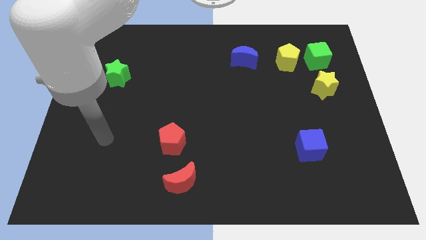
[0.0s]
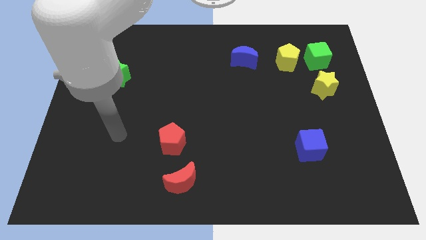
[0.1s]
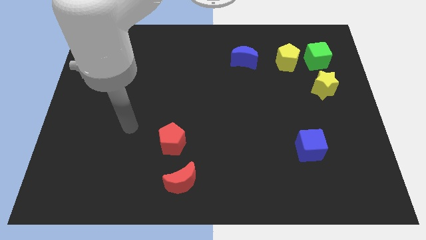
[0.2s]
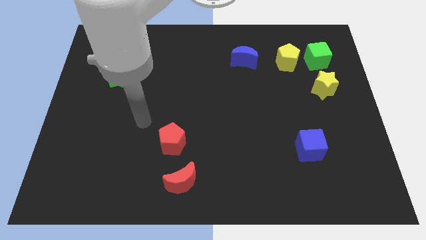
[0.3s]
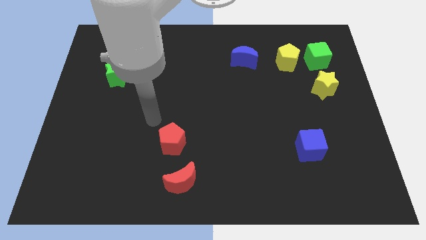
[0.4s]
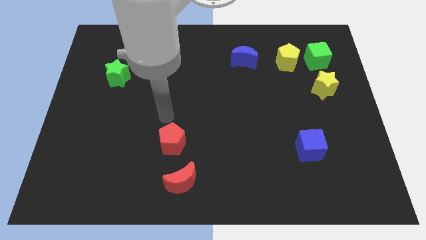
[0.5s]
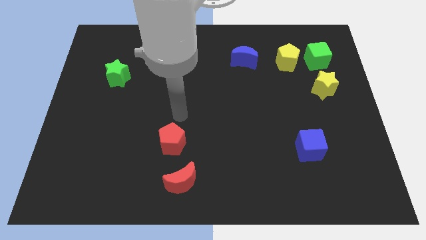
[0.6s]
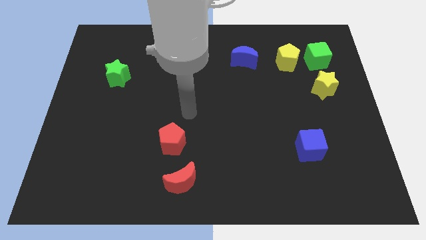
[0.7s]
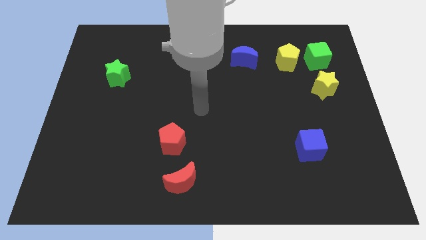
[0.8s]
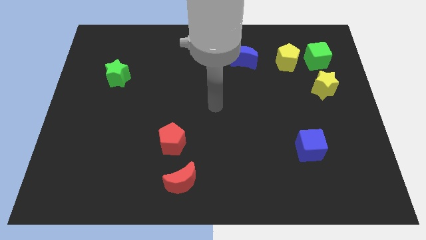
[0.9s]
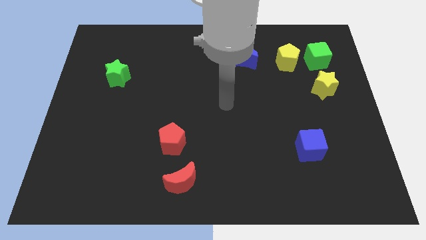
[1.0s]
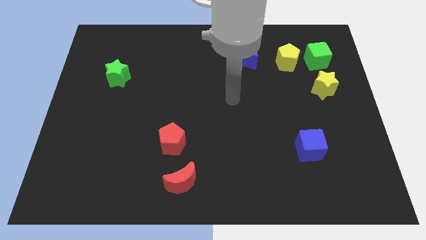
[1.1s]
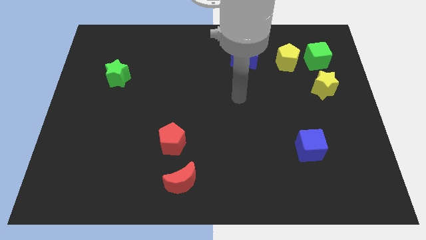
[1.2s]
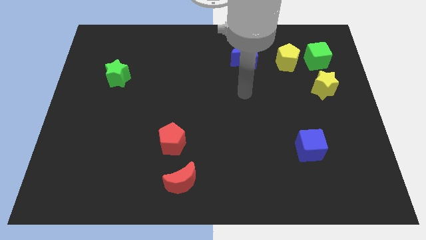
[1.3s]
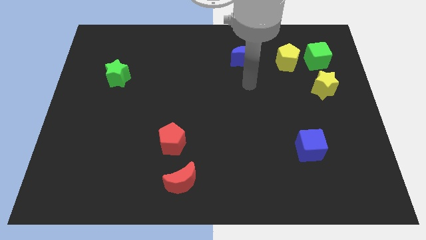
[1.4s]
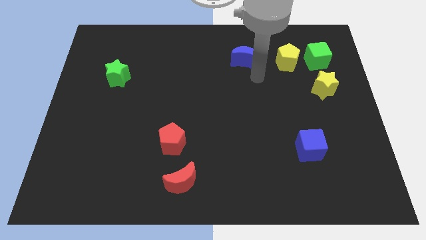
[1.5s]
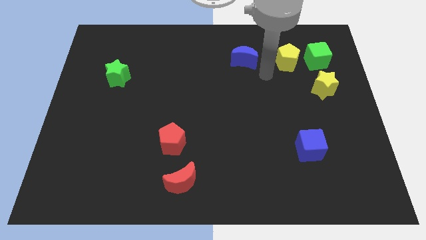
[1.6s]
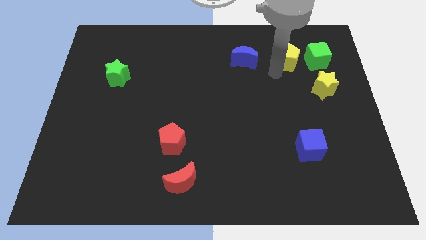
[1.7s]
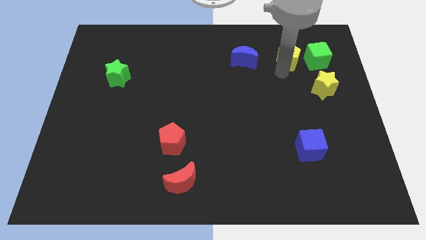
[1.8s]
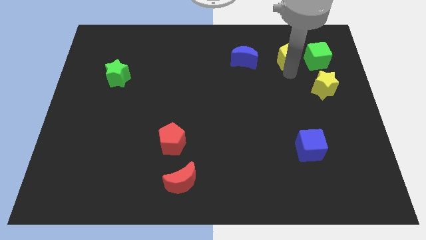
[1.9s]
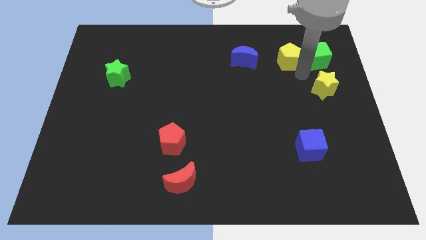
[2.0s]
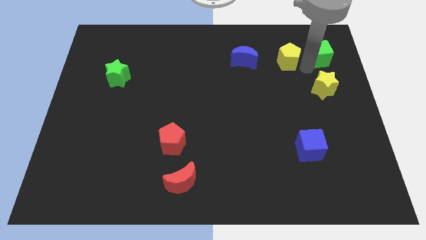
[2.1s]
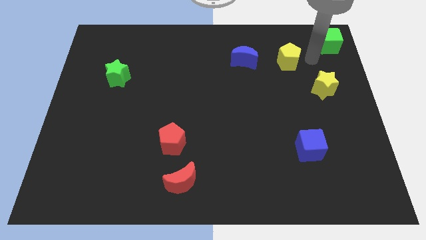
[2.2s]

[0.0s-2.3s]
separate the yellow pentagon from the green cube

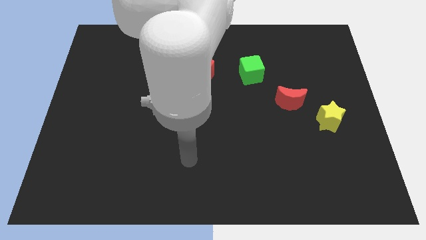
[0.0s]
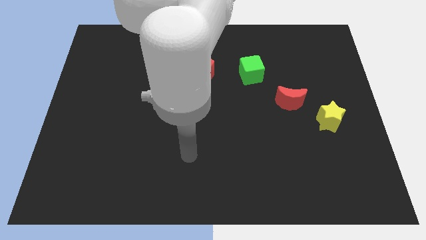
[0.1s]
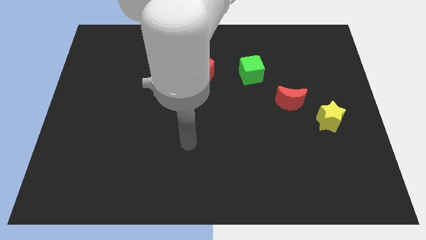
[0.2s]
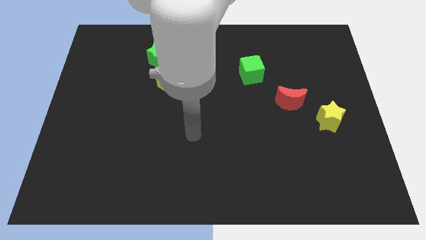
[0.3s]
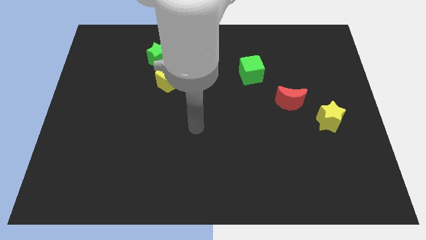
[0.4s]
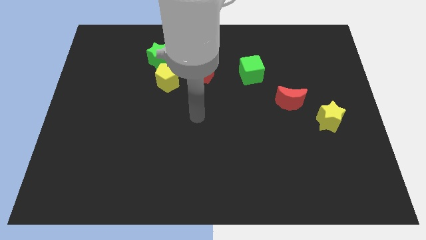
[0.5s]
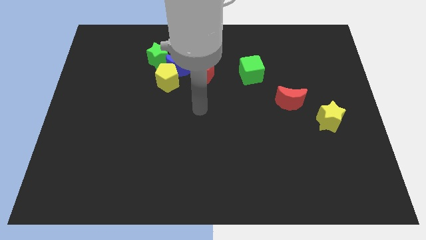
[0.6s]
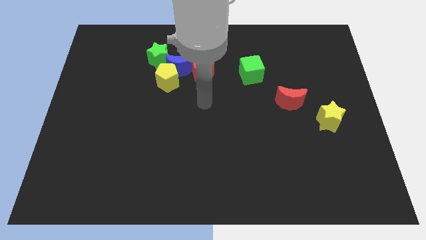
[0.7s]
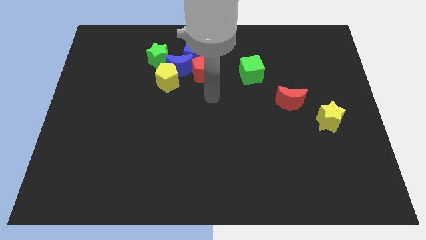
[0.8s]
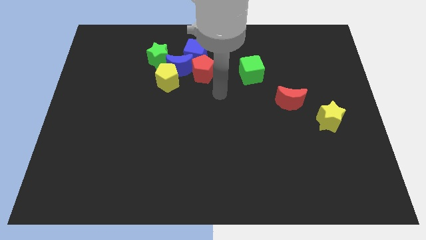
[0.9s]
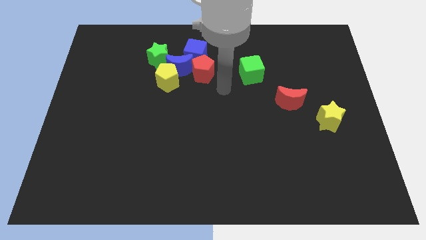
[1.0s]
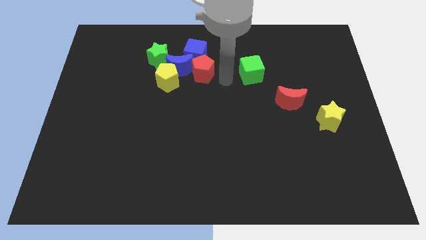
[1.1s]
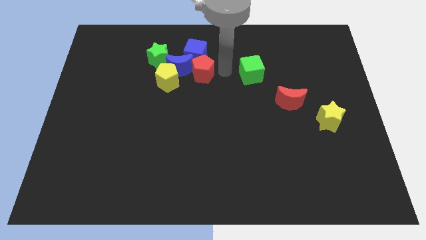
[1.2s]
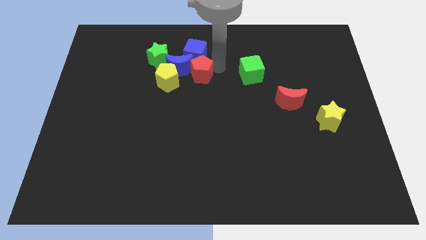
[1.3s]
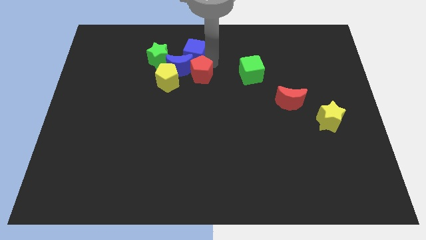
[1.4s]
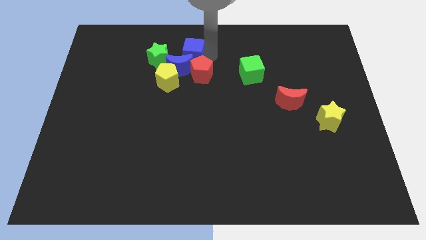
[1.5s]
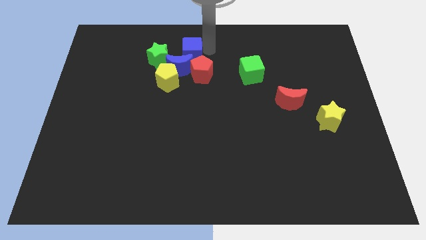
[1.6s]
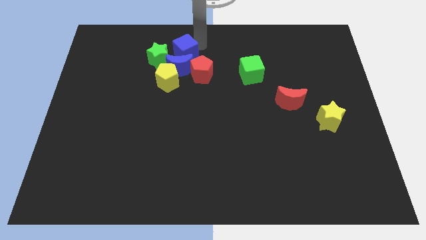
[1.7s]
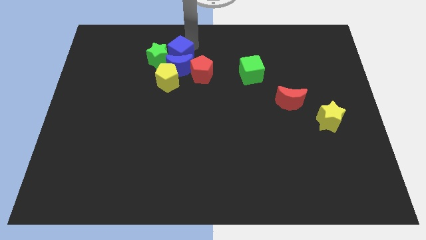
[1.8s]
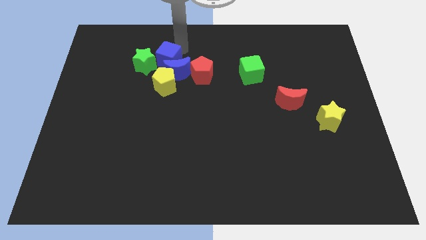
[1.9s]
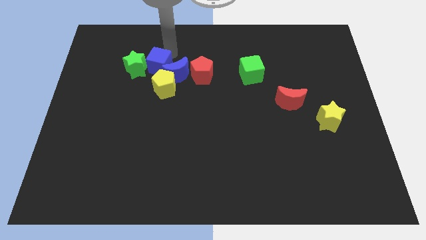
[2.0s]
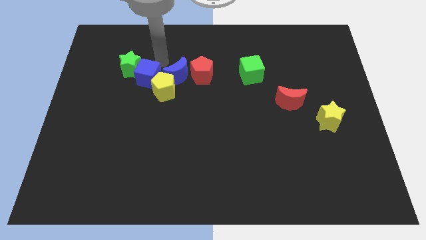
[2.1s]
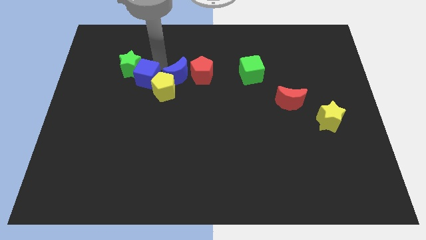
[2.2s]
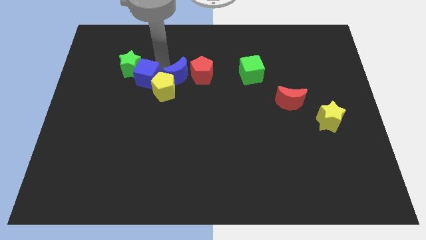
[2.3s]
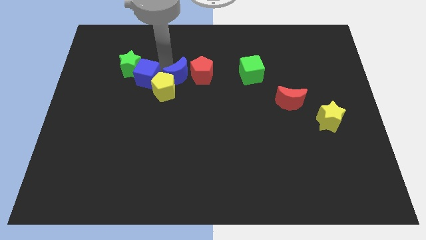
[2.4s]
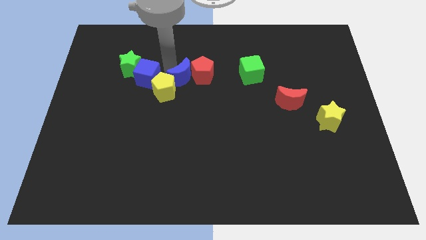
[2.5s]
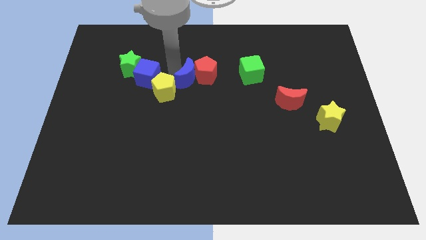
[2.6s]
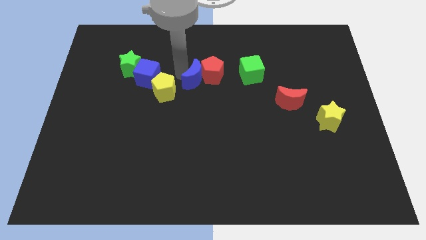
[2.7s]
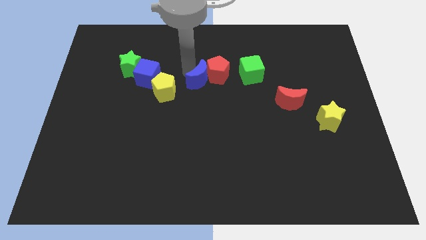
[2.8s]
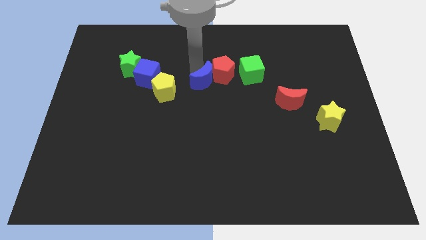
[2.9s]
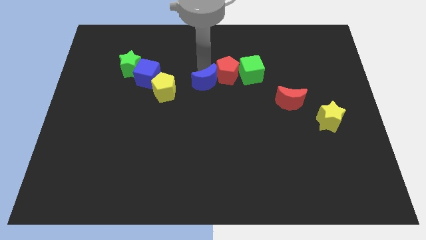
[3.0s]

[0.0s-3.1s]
pull the blue moon apart from the clump

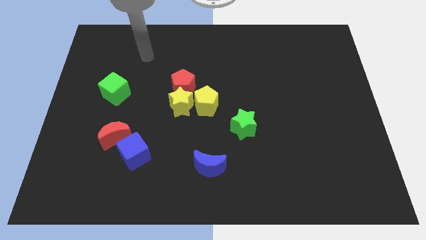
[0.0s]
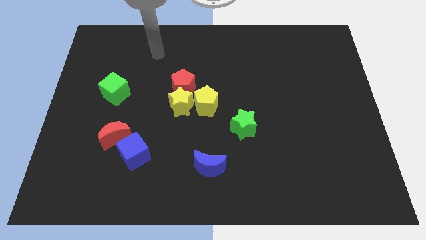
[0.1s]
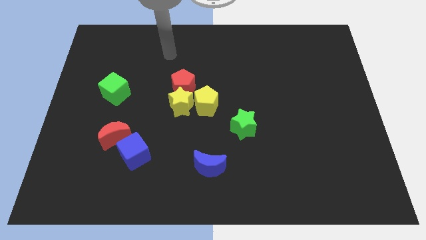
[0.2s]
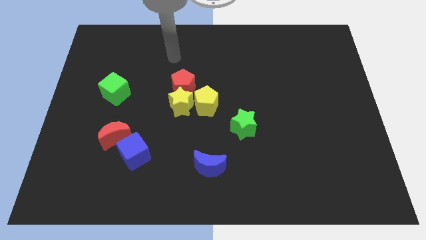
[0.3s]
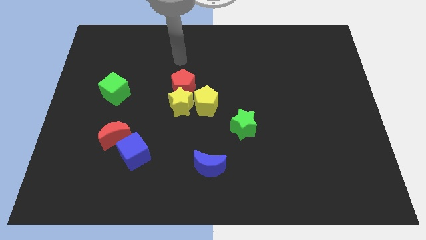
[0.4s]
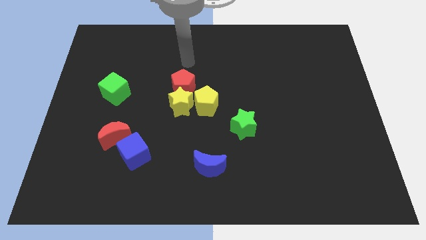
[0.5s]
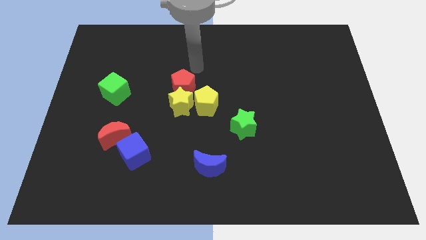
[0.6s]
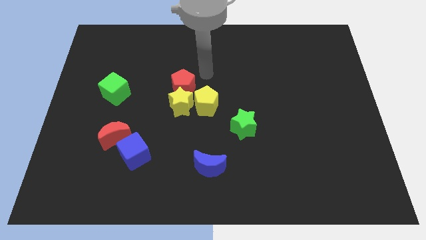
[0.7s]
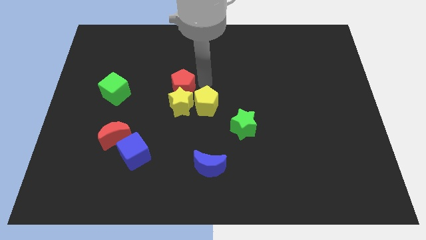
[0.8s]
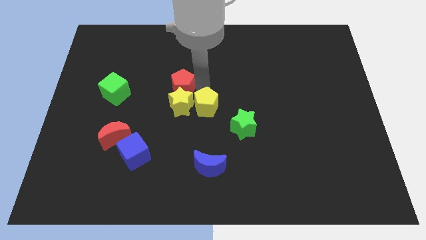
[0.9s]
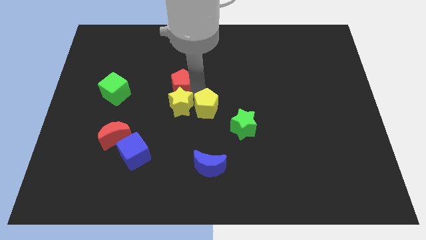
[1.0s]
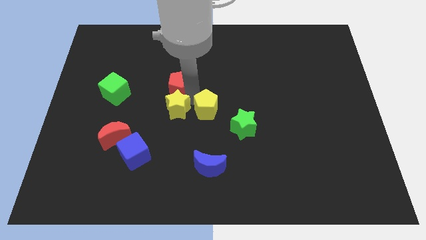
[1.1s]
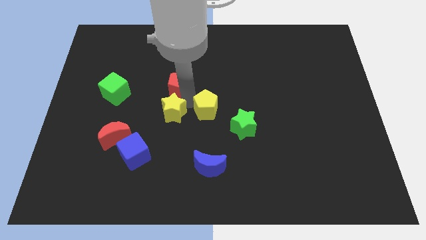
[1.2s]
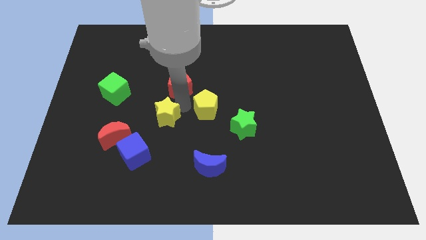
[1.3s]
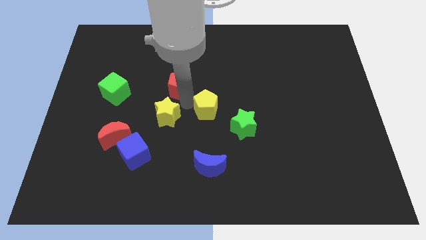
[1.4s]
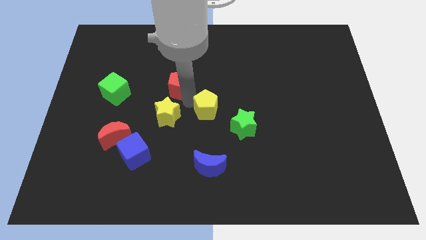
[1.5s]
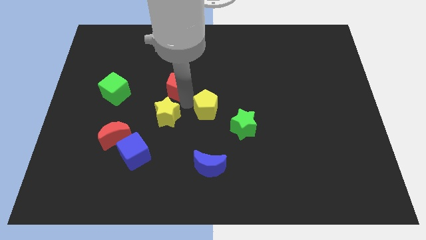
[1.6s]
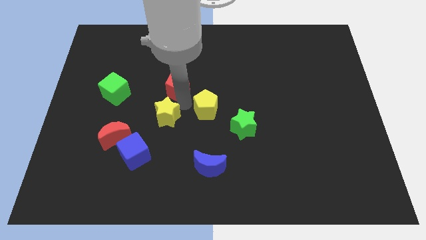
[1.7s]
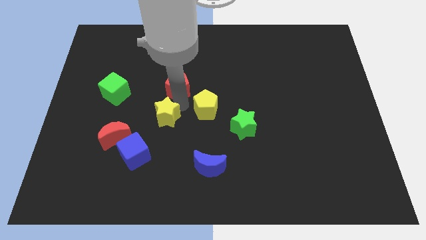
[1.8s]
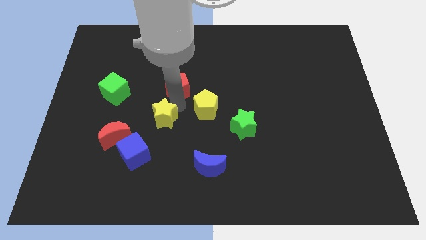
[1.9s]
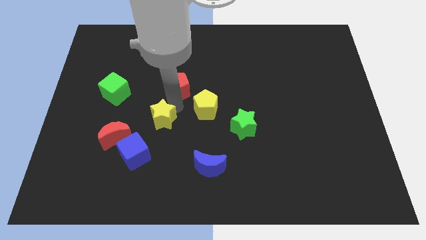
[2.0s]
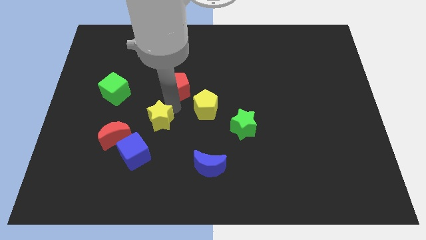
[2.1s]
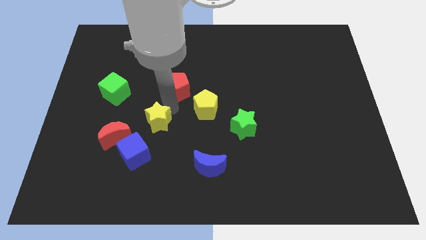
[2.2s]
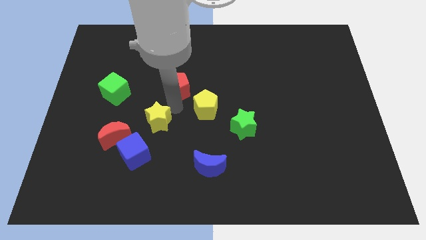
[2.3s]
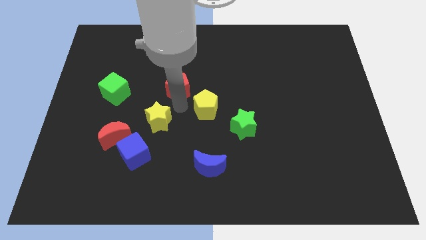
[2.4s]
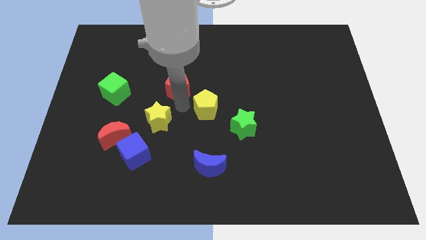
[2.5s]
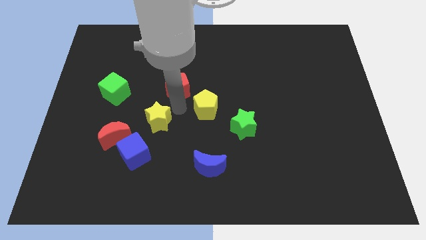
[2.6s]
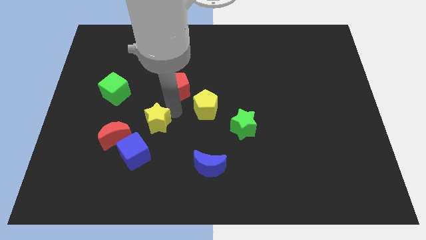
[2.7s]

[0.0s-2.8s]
separate the yellow star from the yellow pentagon and red pentagon

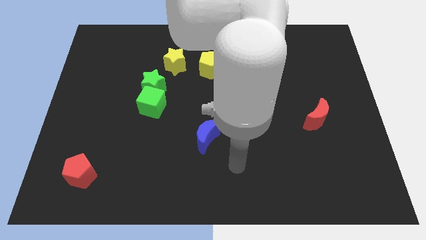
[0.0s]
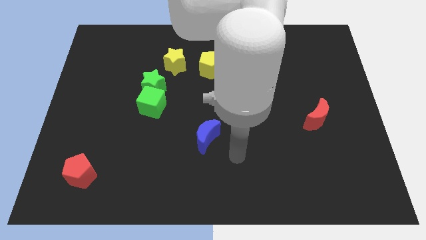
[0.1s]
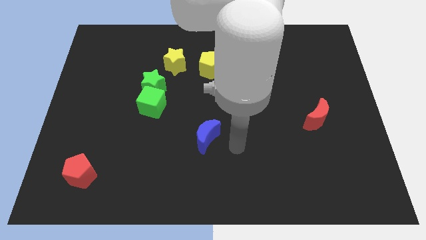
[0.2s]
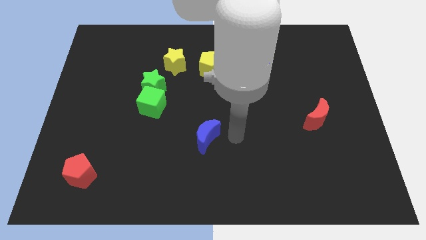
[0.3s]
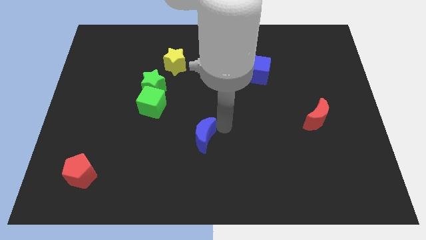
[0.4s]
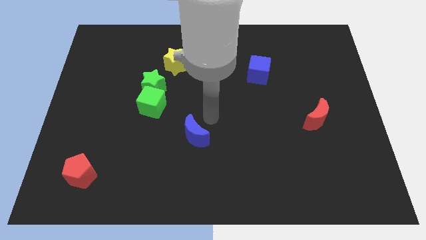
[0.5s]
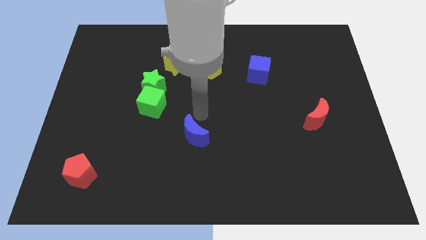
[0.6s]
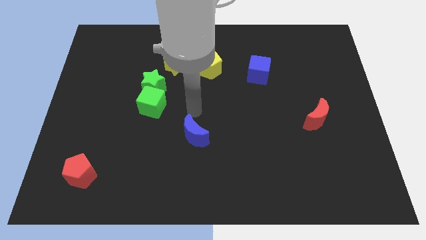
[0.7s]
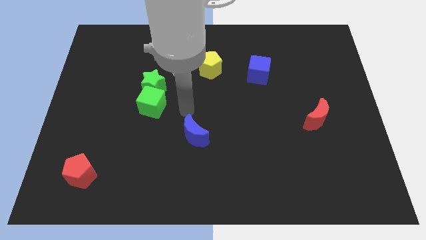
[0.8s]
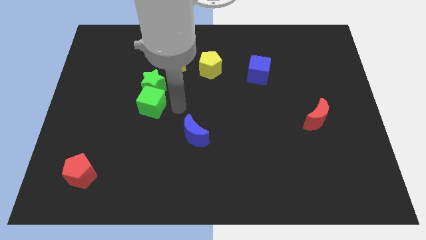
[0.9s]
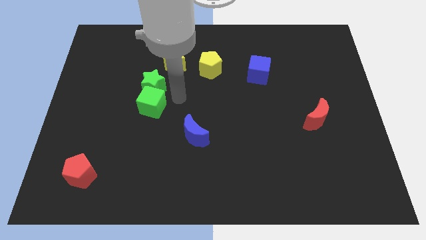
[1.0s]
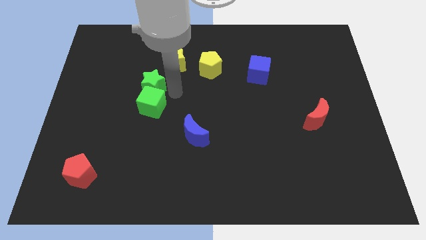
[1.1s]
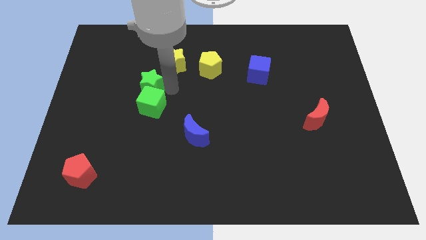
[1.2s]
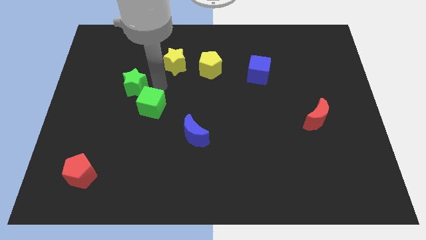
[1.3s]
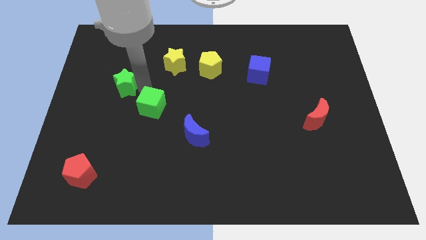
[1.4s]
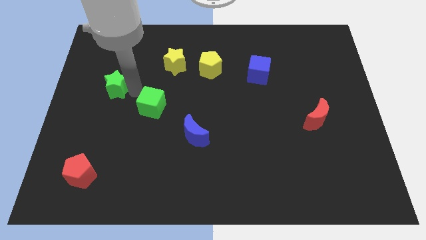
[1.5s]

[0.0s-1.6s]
pull the green cube apart from the green star
